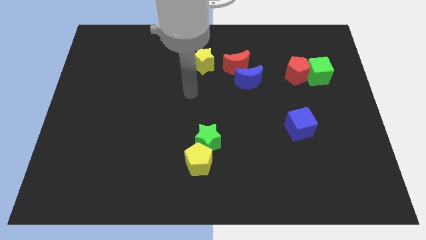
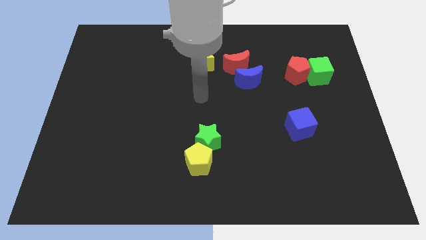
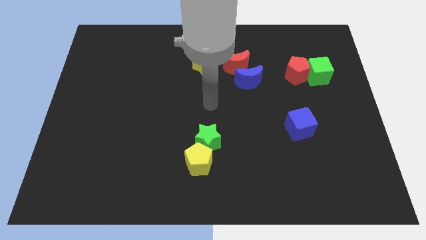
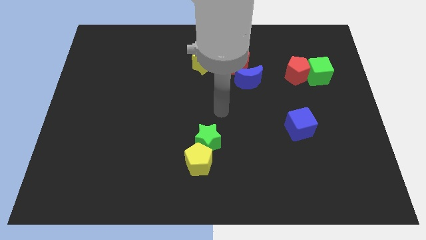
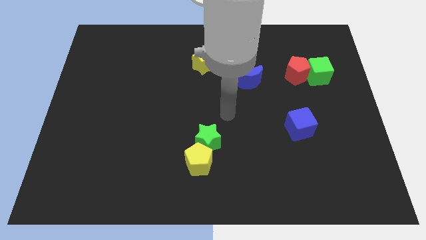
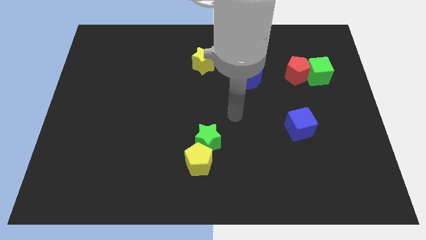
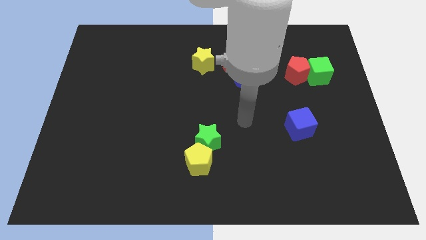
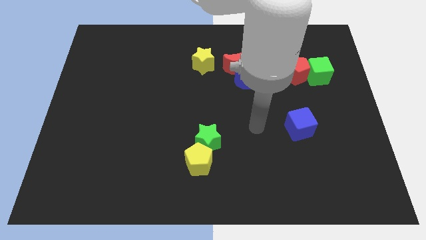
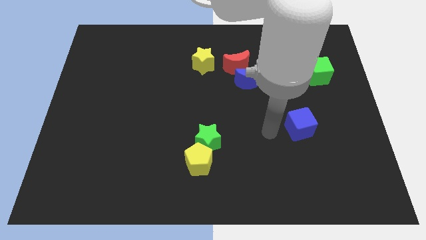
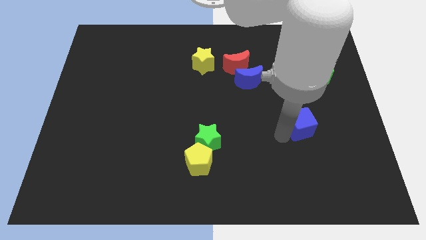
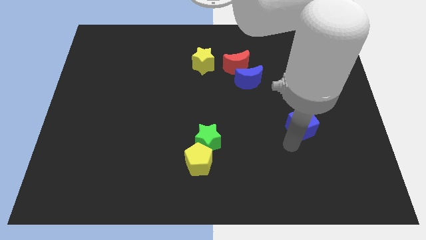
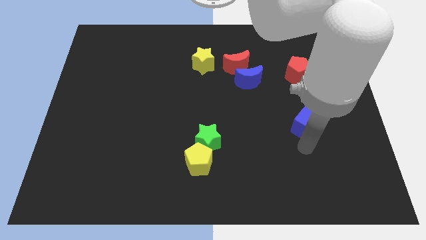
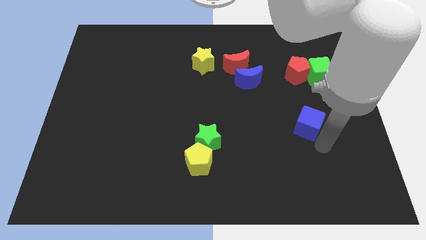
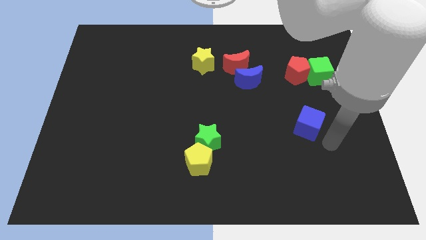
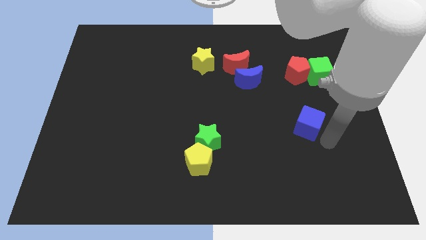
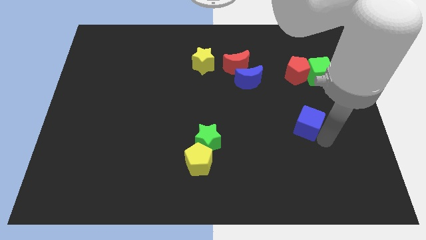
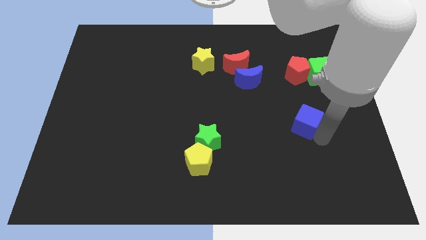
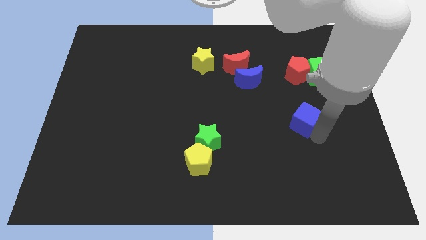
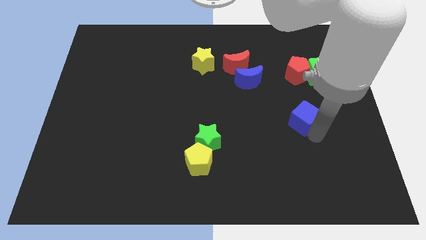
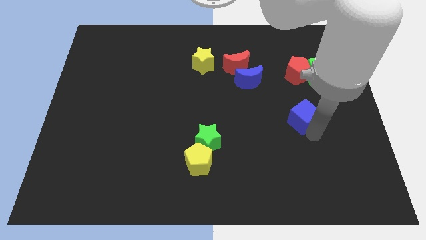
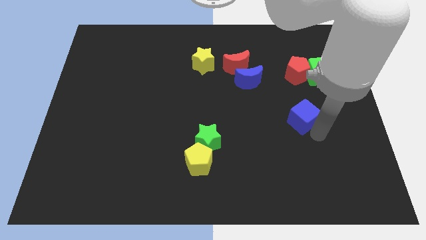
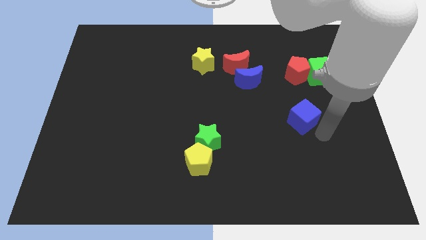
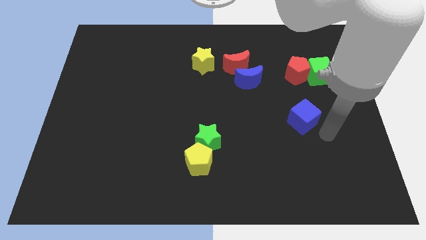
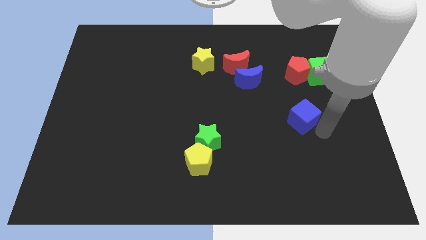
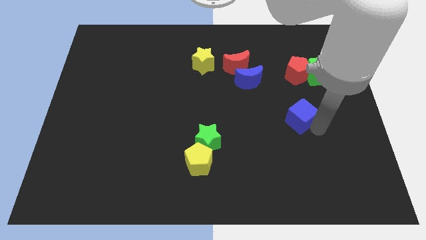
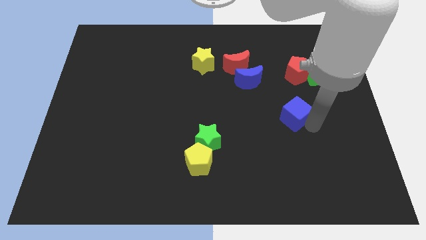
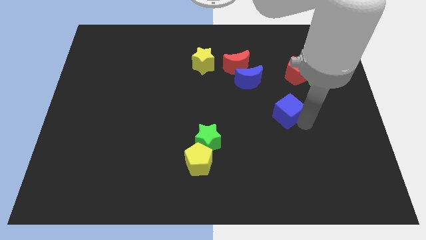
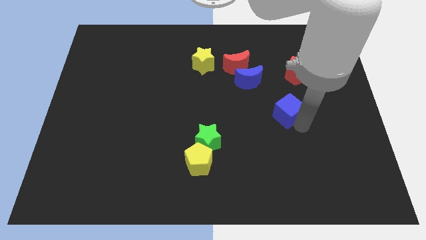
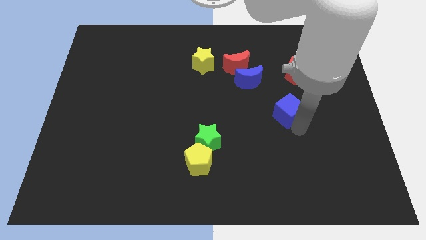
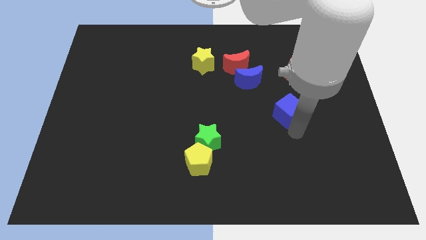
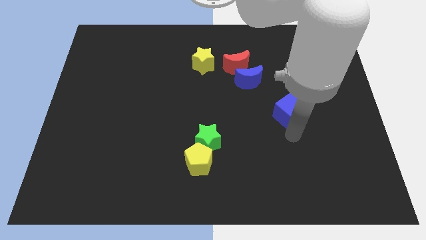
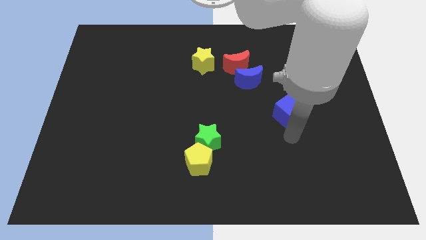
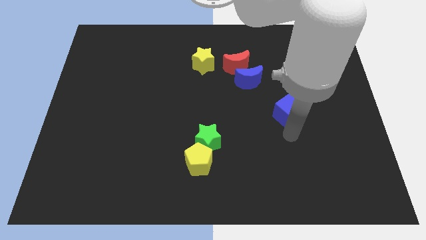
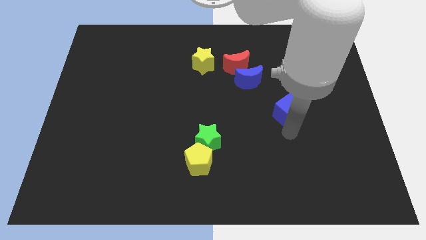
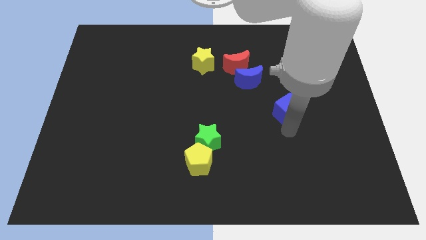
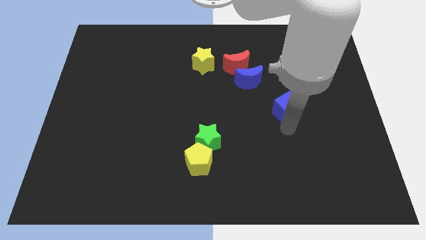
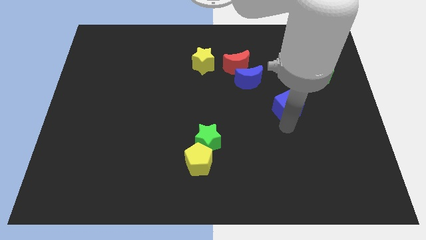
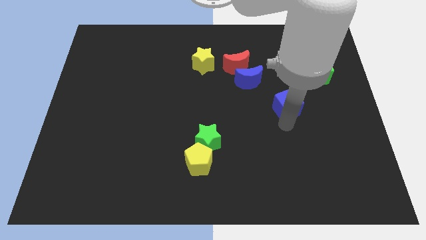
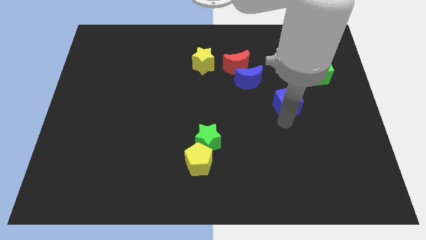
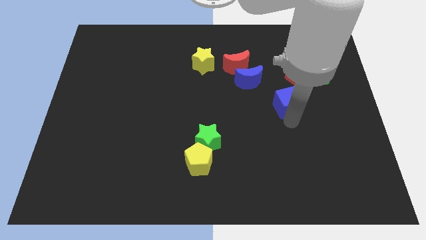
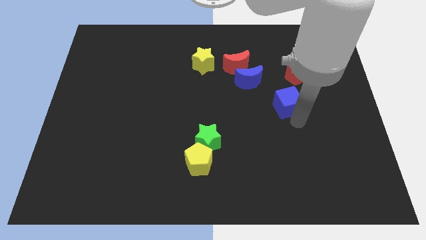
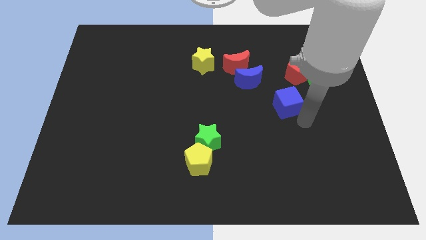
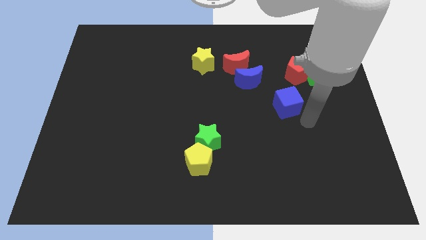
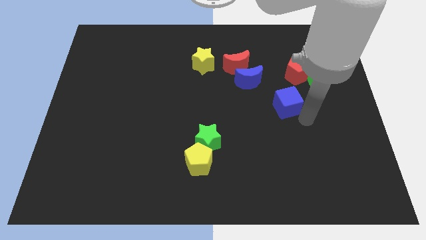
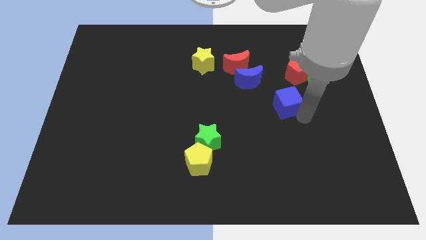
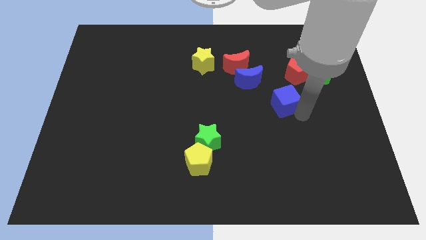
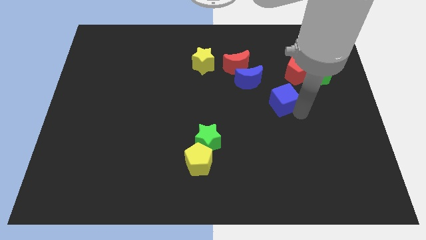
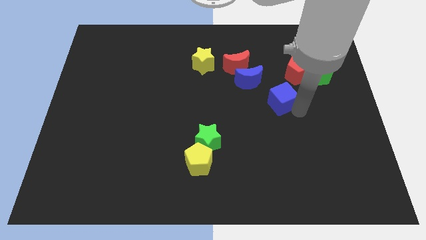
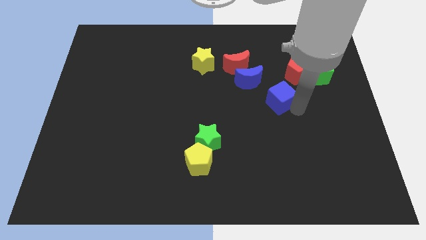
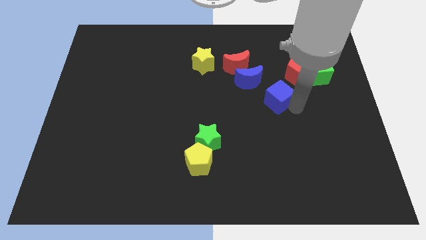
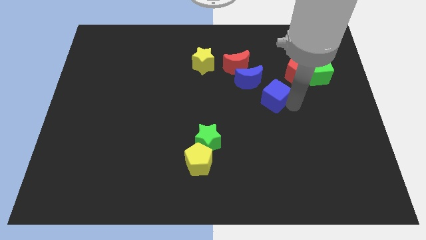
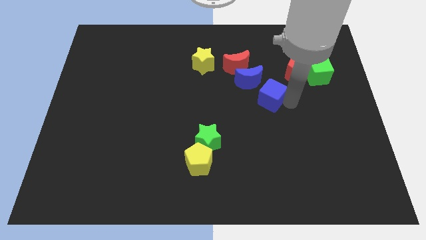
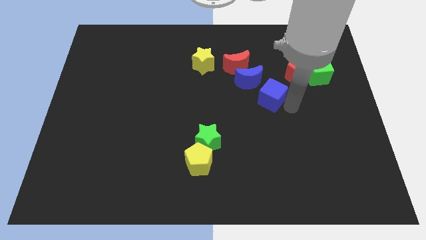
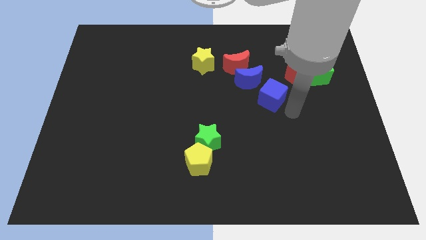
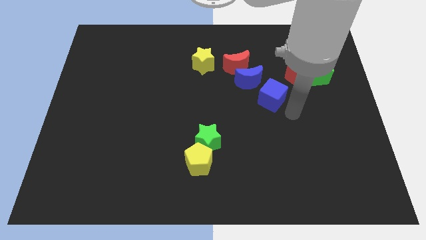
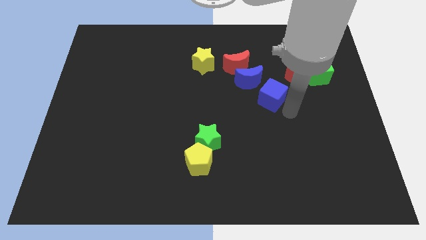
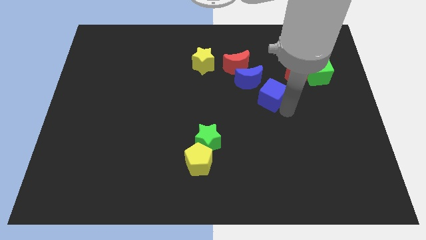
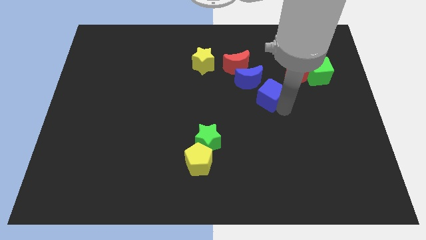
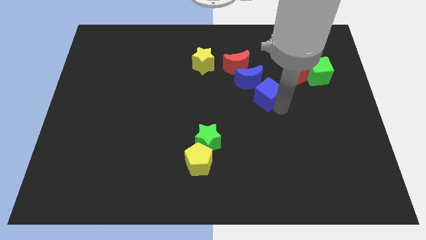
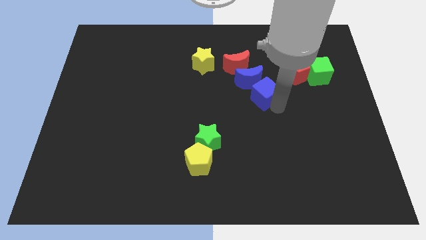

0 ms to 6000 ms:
push the blue cube to the blue moon
